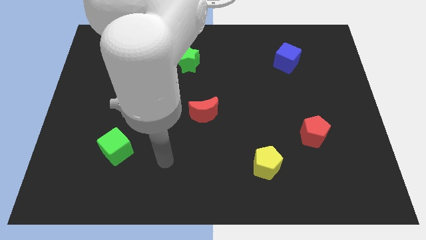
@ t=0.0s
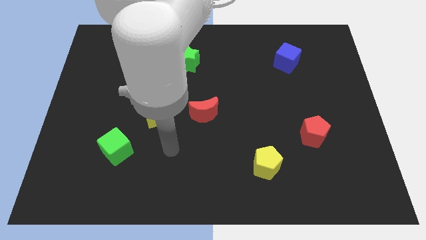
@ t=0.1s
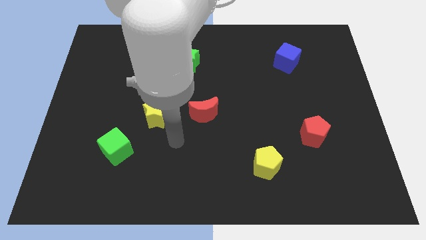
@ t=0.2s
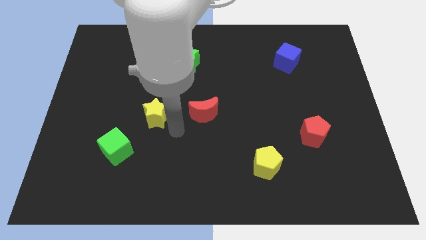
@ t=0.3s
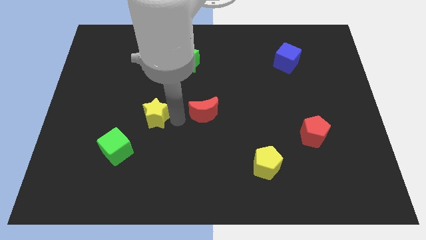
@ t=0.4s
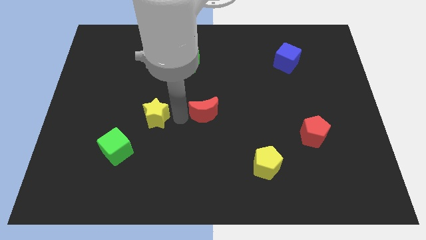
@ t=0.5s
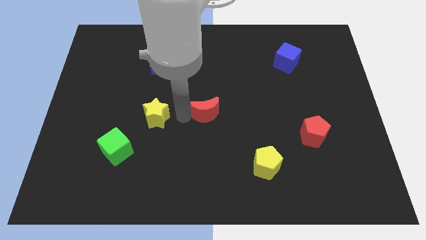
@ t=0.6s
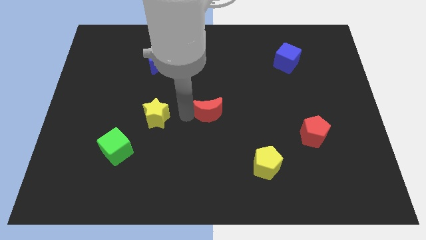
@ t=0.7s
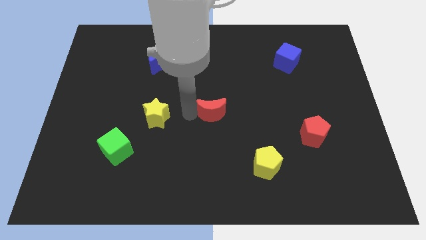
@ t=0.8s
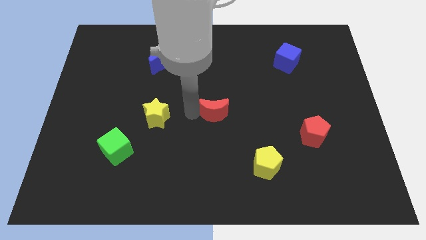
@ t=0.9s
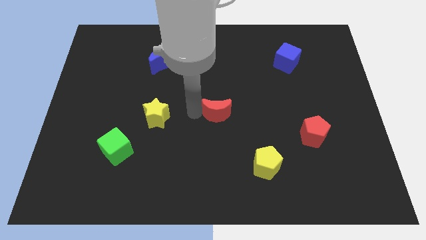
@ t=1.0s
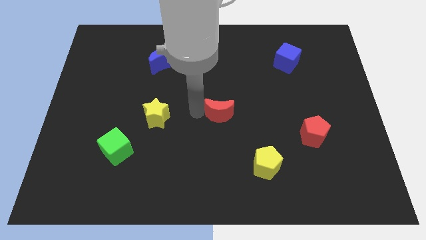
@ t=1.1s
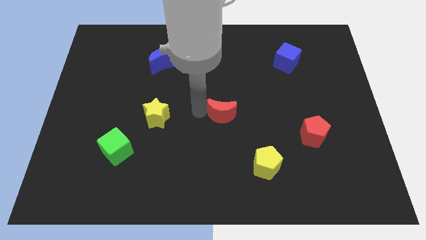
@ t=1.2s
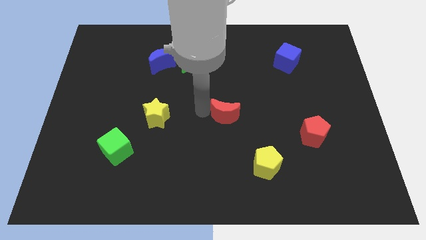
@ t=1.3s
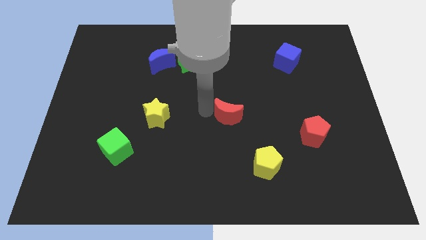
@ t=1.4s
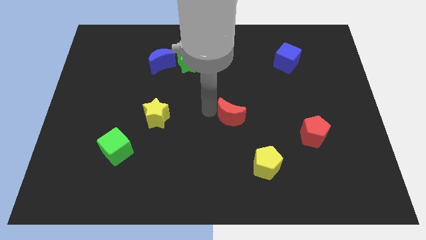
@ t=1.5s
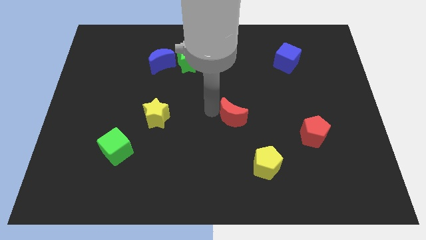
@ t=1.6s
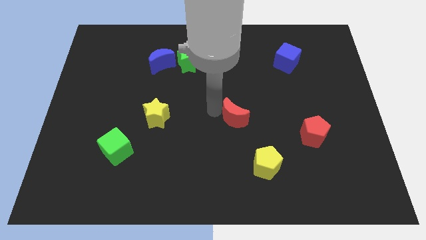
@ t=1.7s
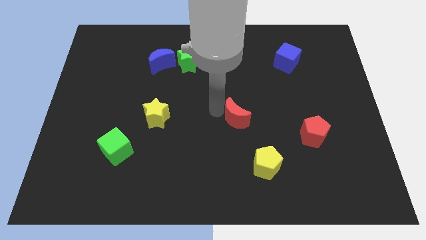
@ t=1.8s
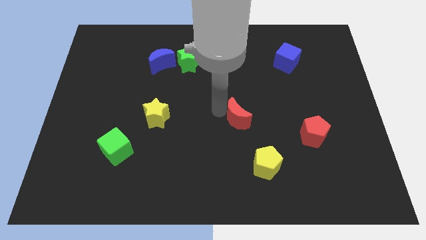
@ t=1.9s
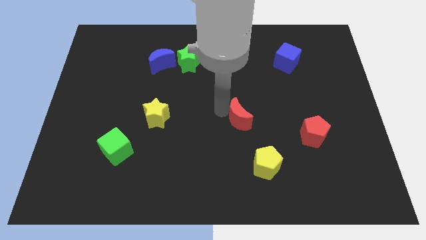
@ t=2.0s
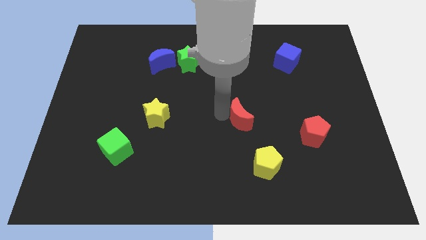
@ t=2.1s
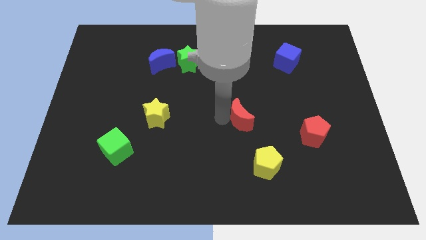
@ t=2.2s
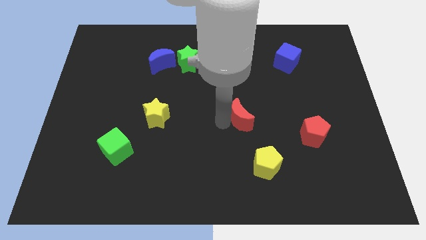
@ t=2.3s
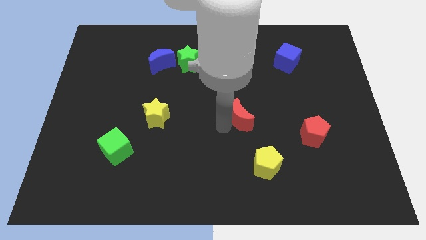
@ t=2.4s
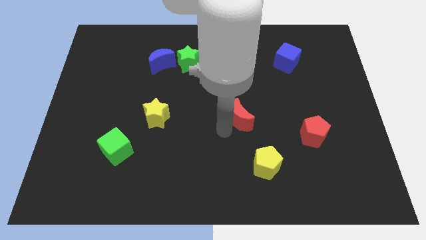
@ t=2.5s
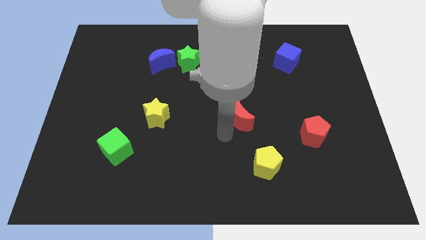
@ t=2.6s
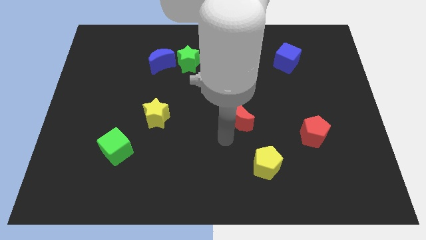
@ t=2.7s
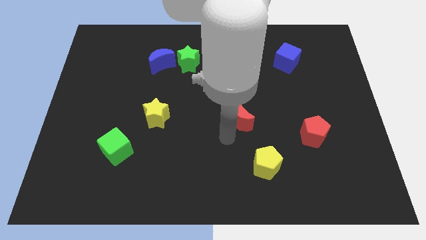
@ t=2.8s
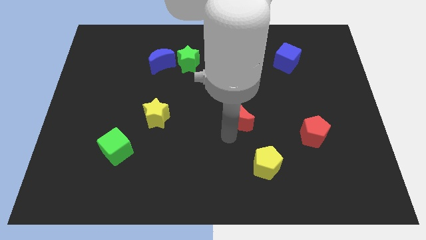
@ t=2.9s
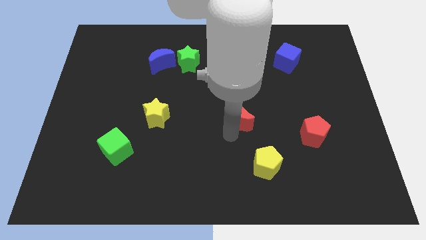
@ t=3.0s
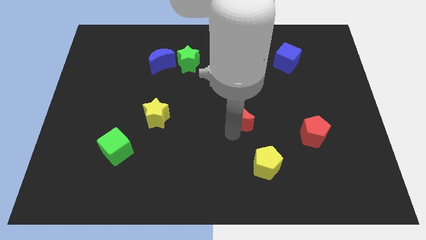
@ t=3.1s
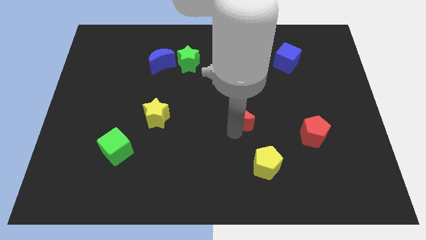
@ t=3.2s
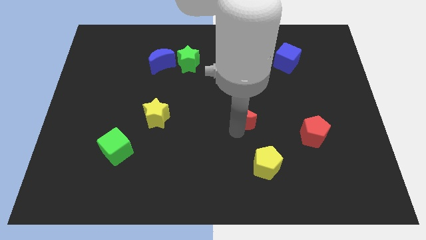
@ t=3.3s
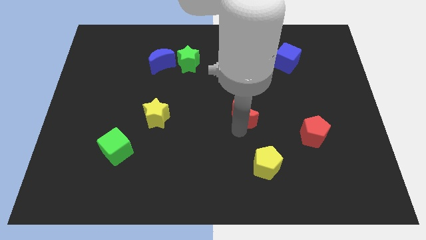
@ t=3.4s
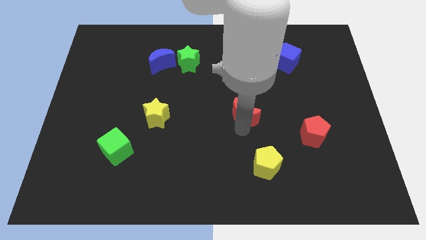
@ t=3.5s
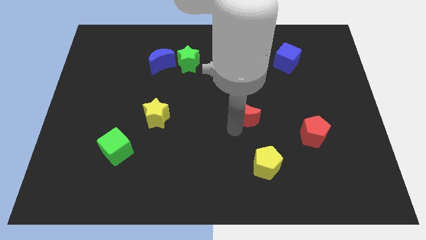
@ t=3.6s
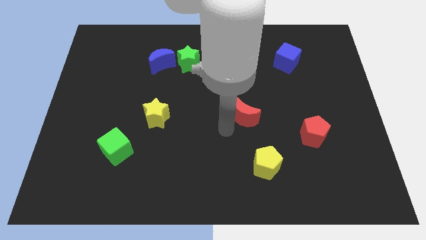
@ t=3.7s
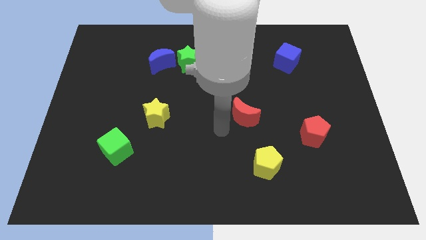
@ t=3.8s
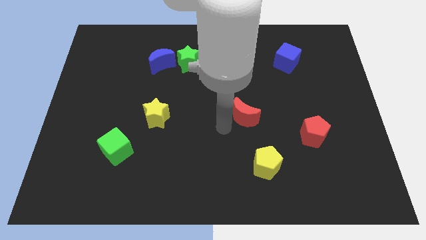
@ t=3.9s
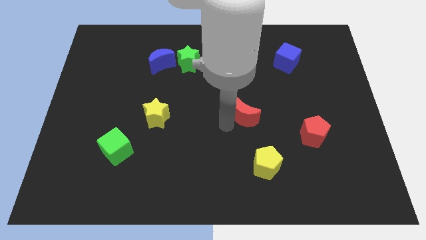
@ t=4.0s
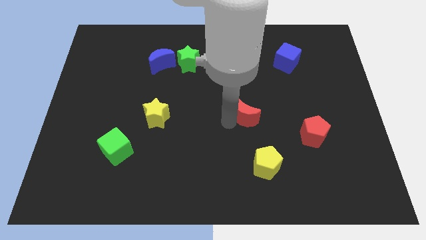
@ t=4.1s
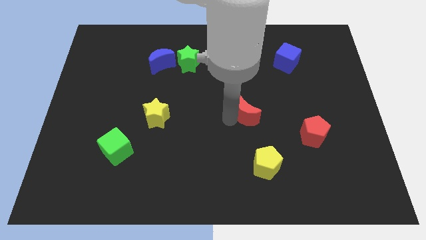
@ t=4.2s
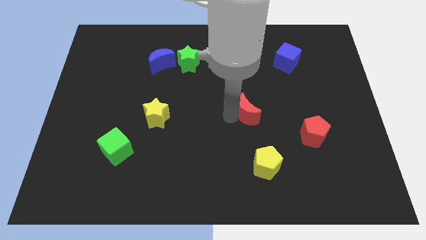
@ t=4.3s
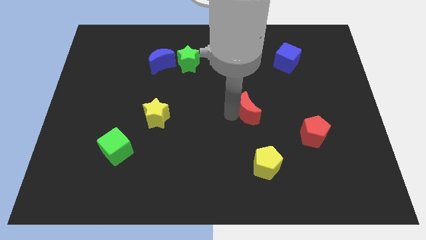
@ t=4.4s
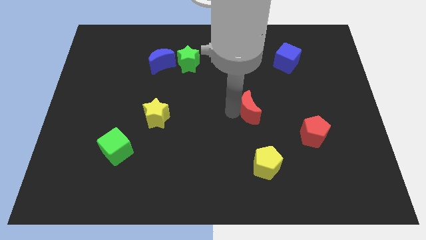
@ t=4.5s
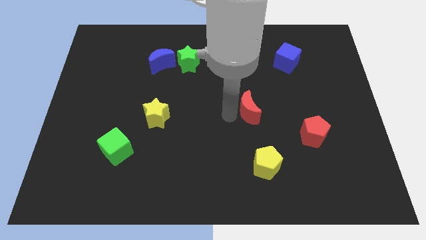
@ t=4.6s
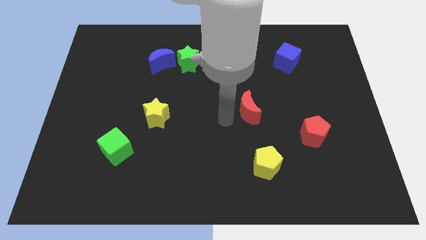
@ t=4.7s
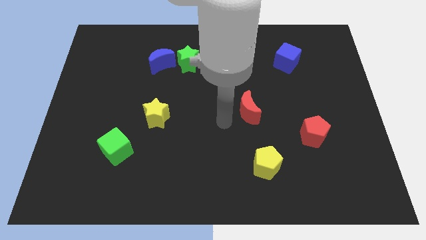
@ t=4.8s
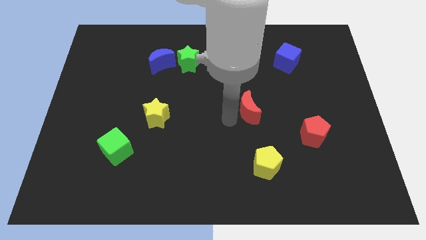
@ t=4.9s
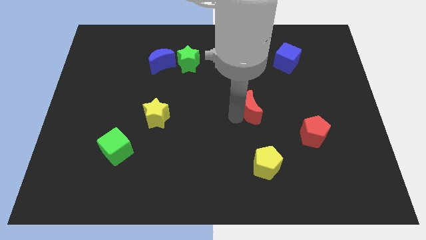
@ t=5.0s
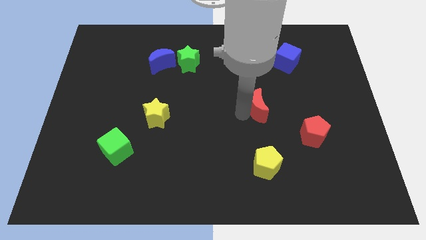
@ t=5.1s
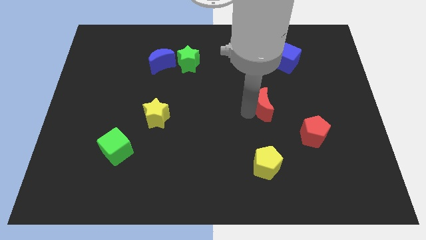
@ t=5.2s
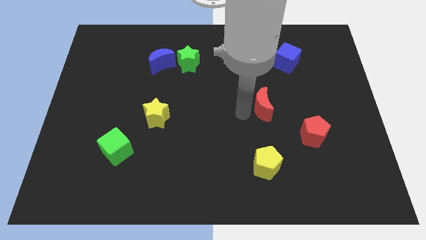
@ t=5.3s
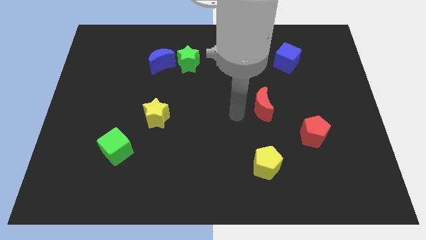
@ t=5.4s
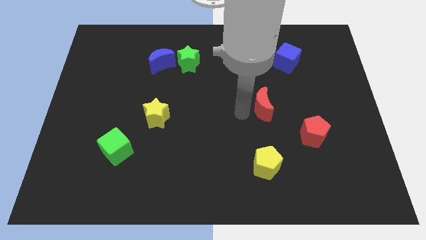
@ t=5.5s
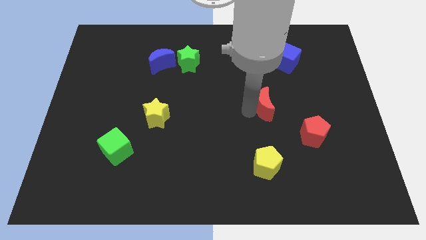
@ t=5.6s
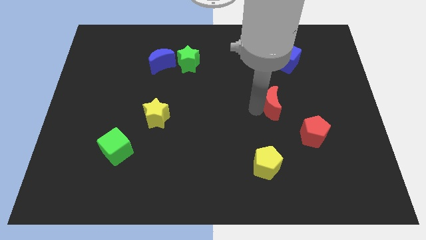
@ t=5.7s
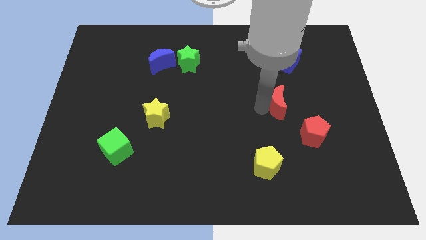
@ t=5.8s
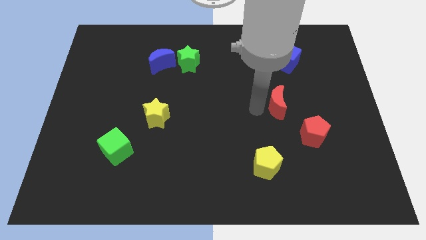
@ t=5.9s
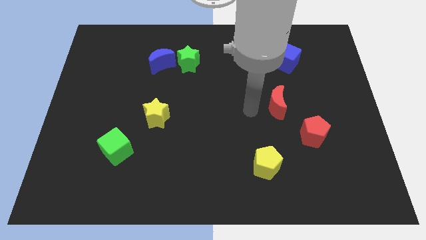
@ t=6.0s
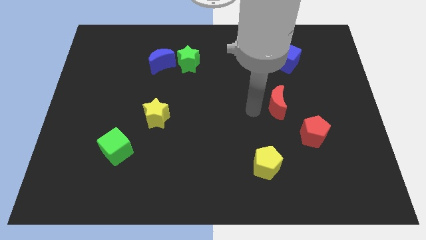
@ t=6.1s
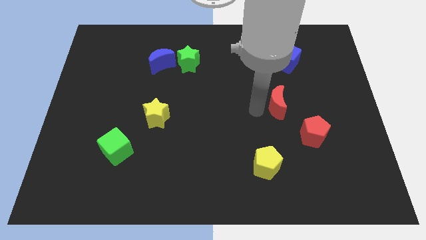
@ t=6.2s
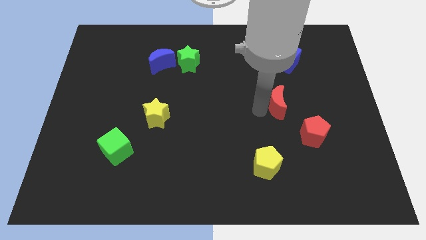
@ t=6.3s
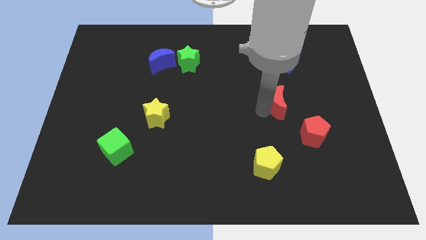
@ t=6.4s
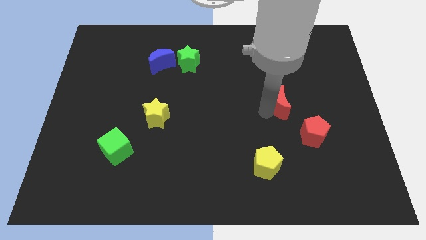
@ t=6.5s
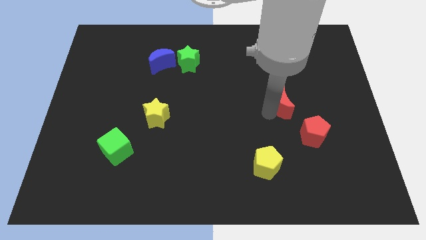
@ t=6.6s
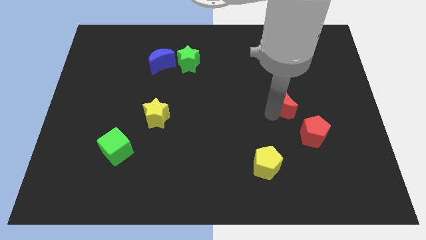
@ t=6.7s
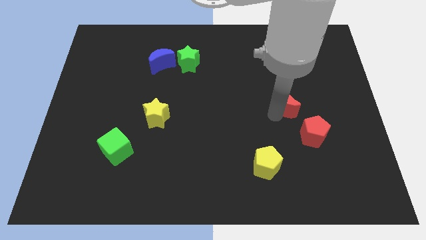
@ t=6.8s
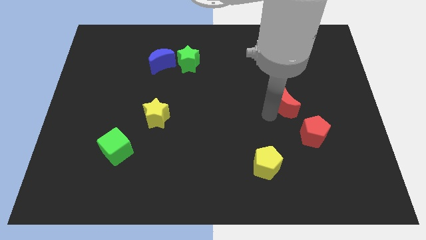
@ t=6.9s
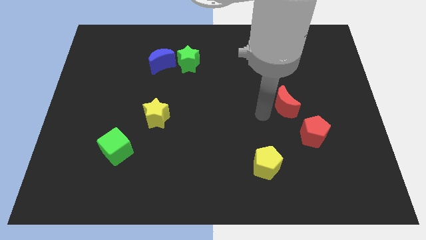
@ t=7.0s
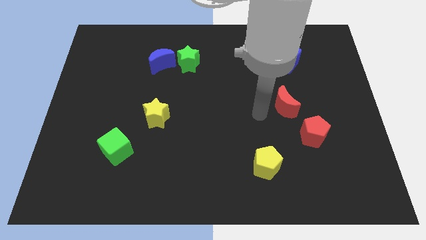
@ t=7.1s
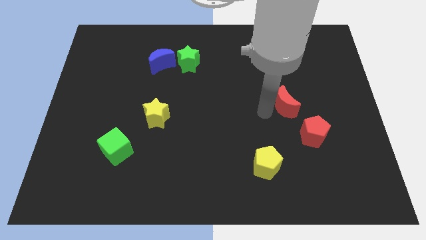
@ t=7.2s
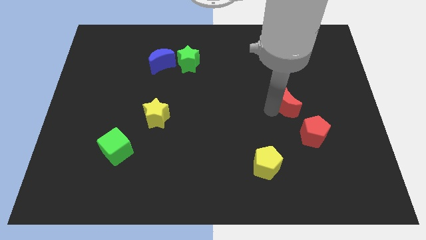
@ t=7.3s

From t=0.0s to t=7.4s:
push the red moon to the top of the red pentagon
